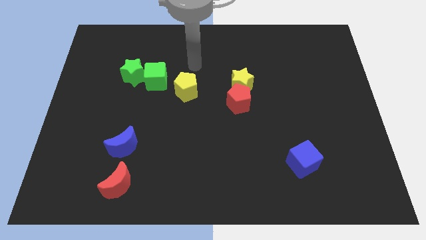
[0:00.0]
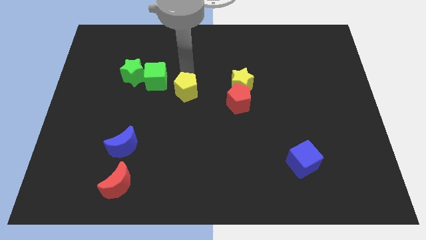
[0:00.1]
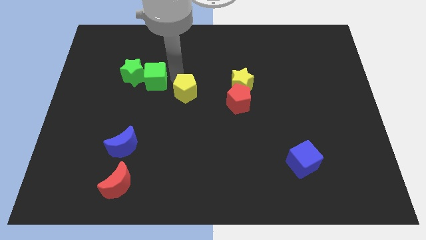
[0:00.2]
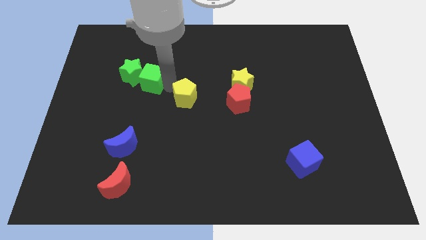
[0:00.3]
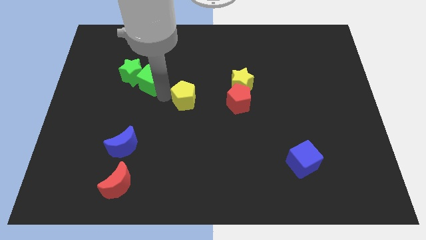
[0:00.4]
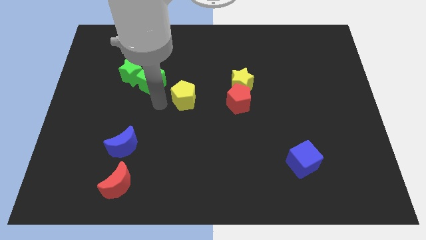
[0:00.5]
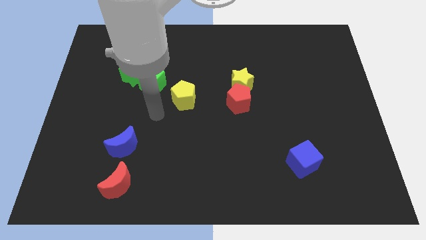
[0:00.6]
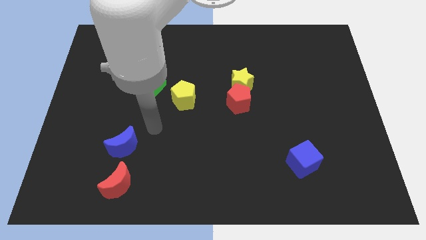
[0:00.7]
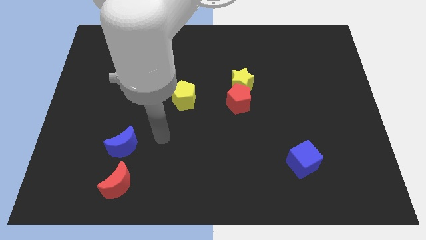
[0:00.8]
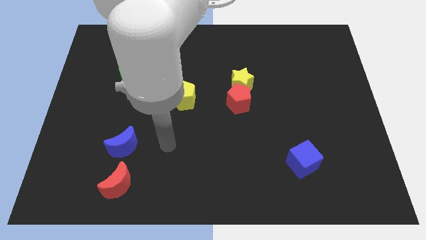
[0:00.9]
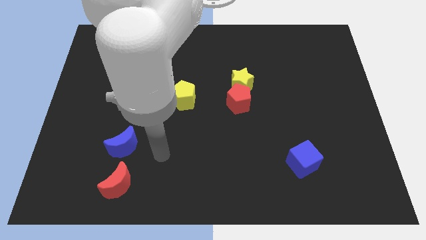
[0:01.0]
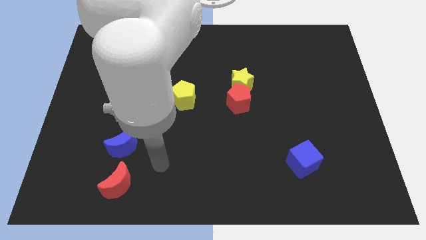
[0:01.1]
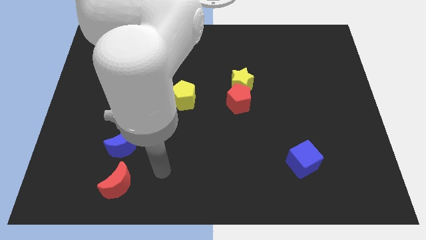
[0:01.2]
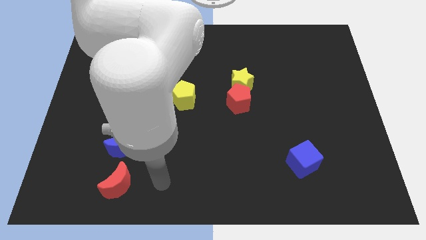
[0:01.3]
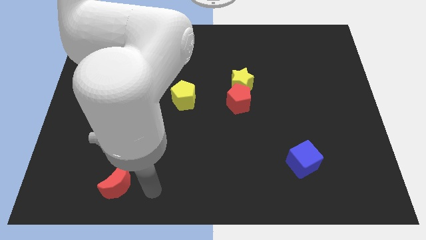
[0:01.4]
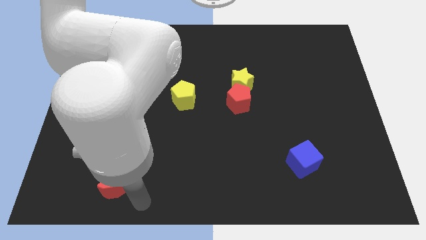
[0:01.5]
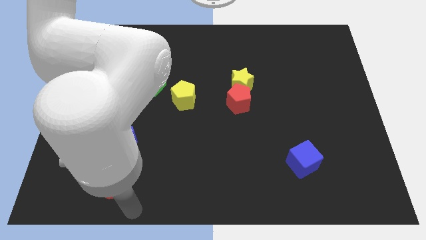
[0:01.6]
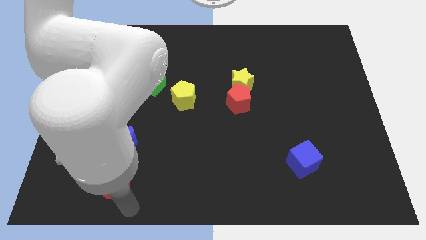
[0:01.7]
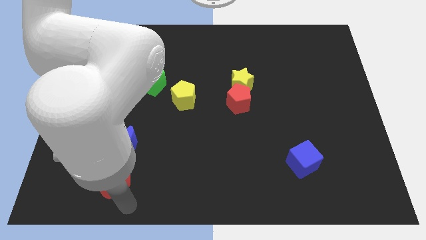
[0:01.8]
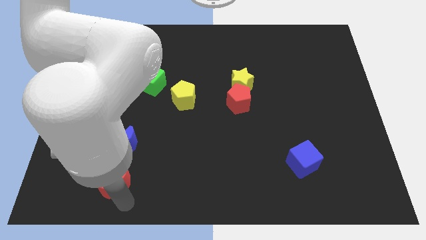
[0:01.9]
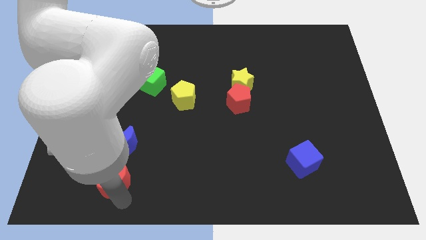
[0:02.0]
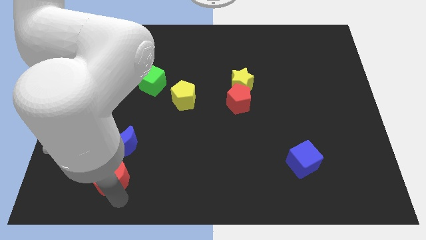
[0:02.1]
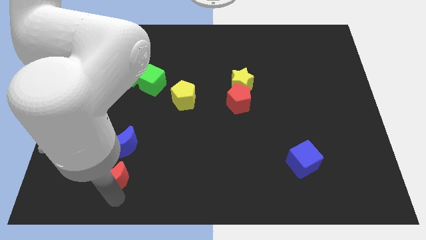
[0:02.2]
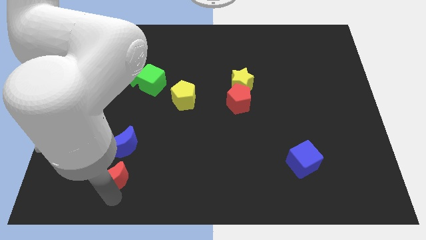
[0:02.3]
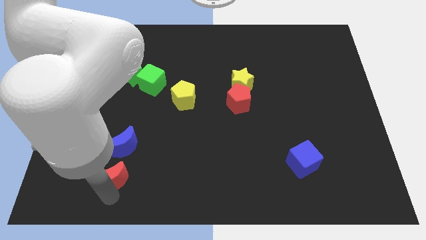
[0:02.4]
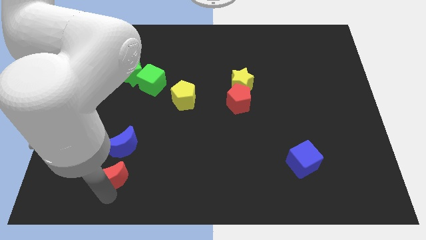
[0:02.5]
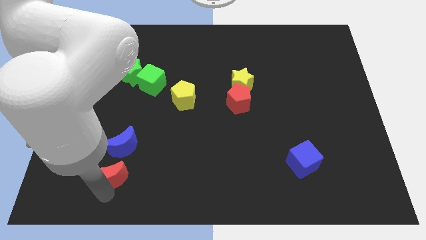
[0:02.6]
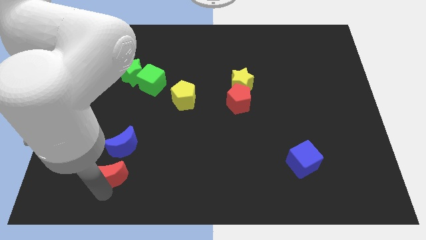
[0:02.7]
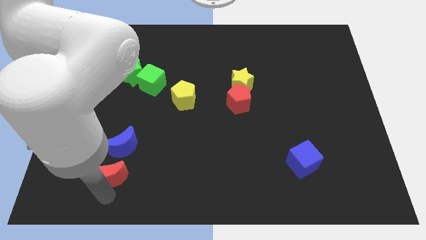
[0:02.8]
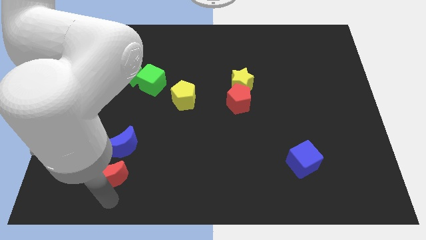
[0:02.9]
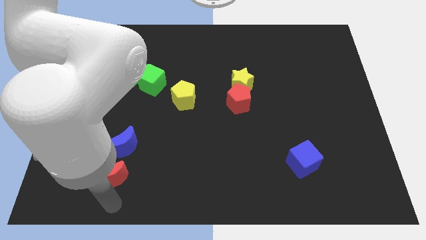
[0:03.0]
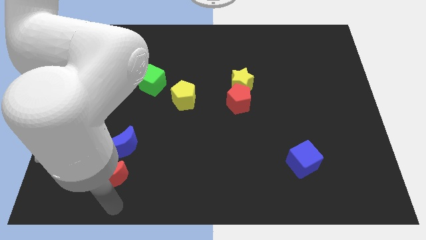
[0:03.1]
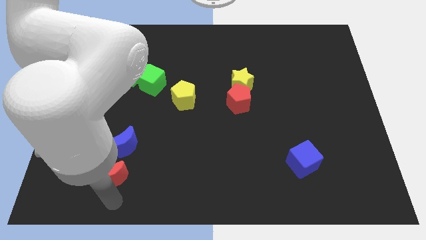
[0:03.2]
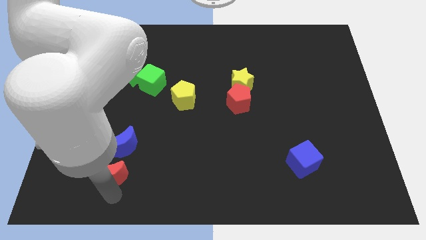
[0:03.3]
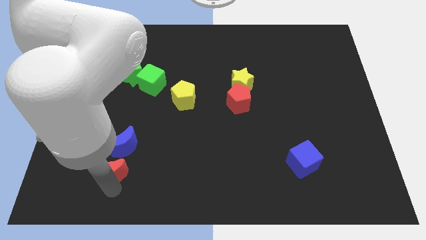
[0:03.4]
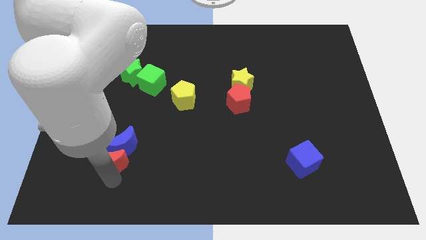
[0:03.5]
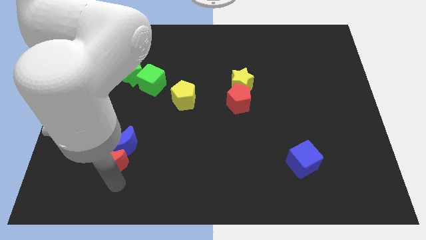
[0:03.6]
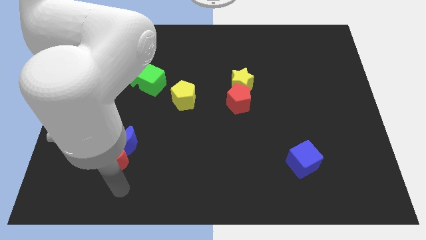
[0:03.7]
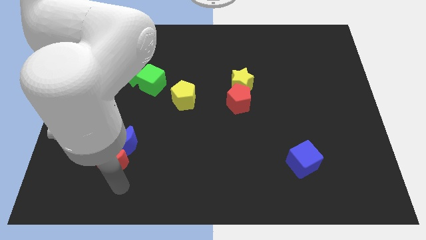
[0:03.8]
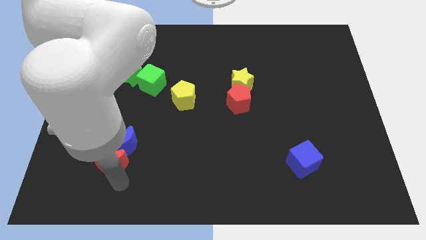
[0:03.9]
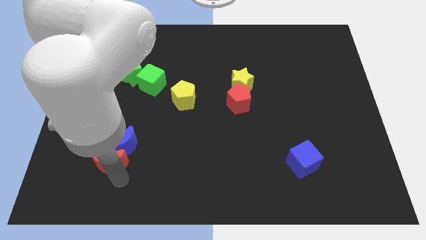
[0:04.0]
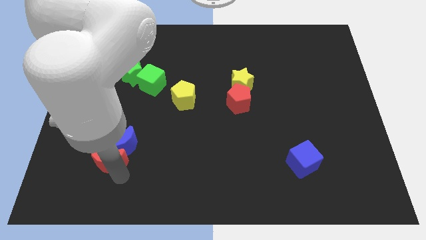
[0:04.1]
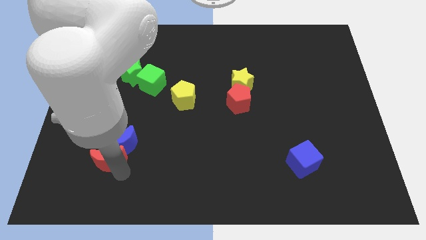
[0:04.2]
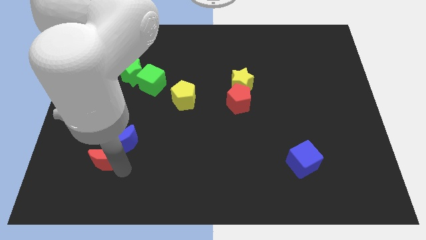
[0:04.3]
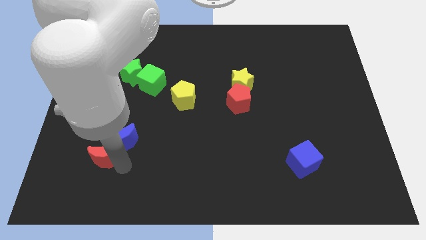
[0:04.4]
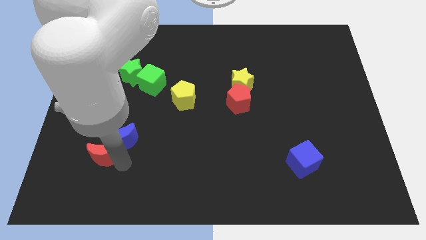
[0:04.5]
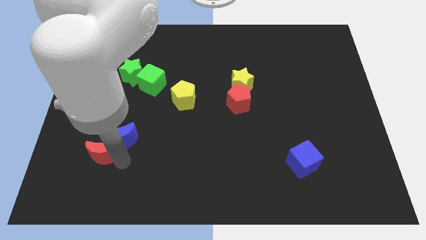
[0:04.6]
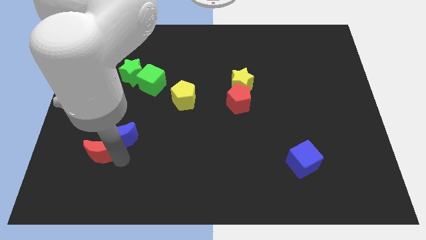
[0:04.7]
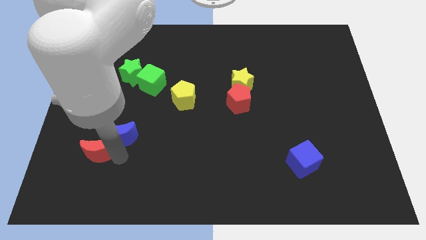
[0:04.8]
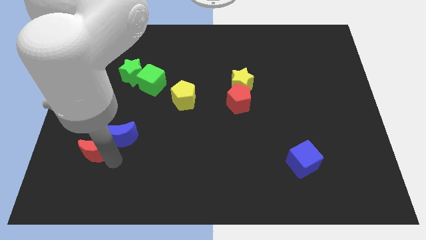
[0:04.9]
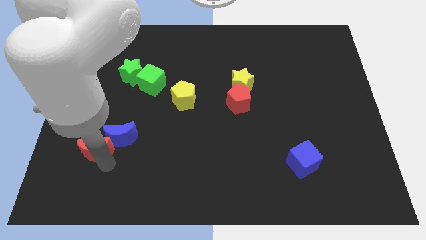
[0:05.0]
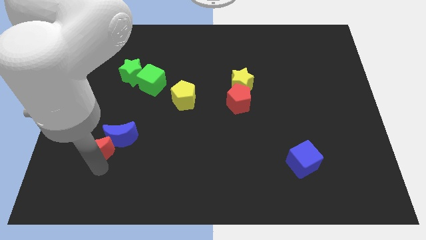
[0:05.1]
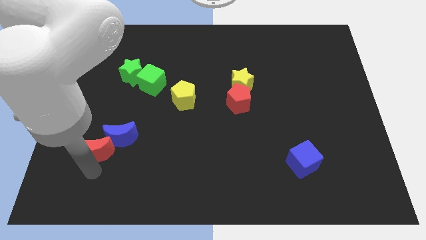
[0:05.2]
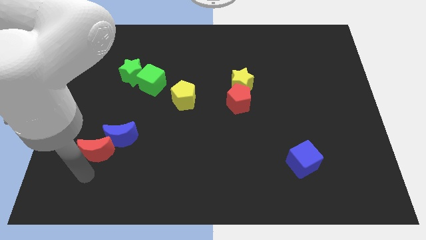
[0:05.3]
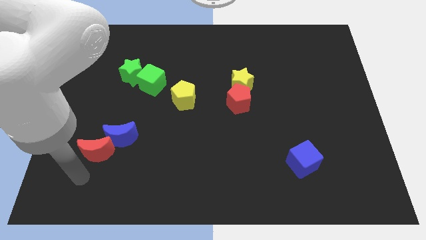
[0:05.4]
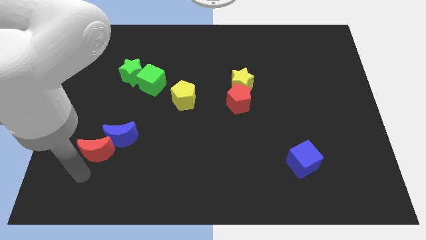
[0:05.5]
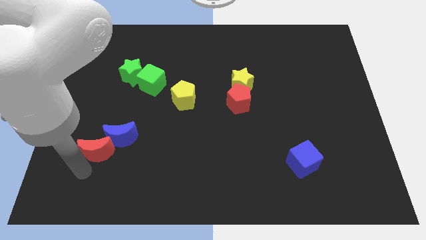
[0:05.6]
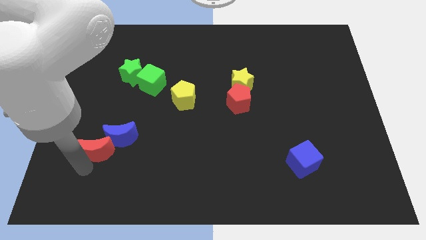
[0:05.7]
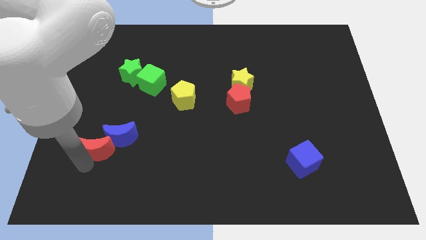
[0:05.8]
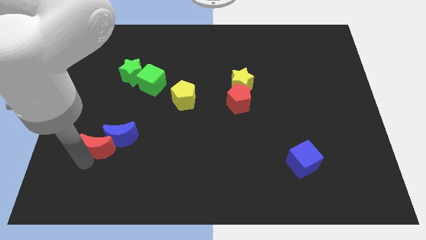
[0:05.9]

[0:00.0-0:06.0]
move the red moon somewhat upwards

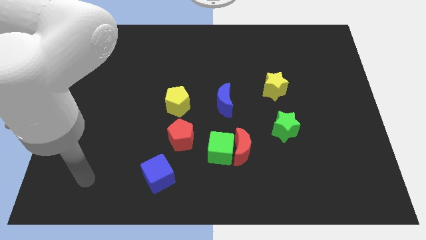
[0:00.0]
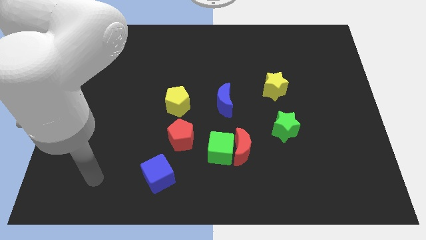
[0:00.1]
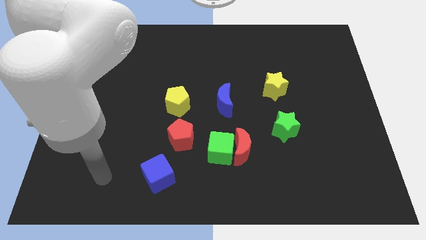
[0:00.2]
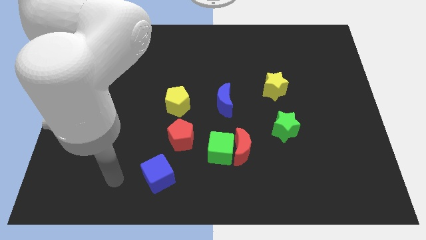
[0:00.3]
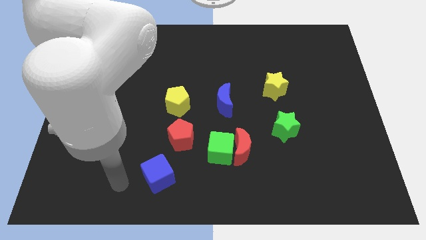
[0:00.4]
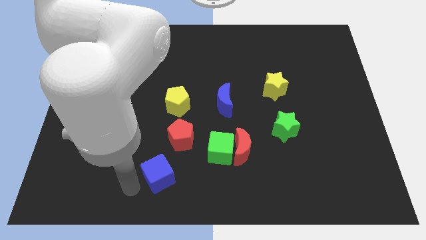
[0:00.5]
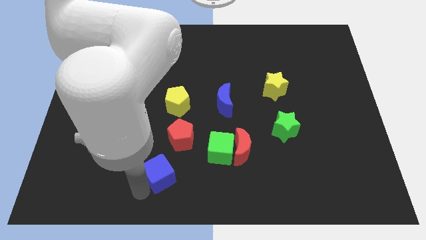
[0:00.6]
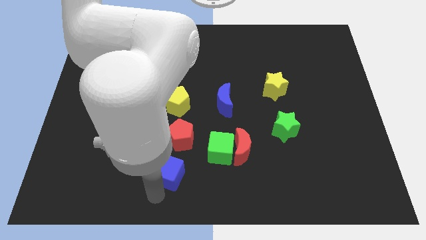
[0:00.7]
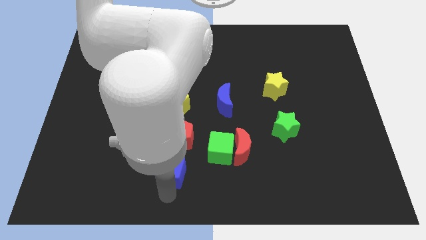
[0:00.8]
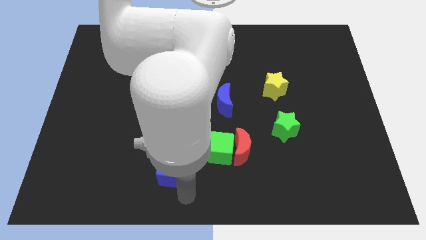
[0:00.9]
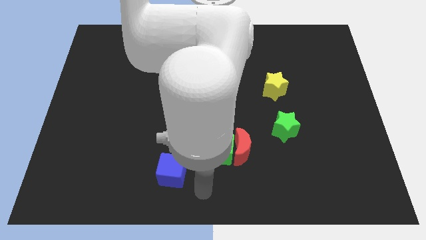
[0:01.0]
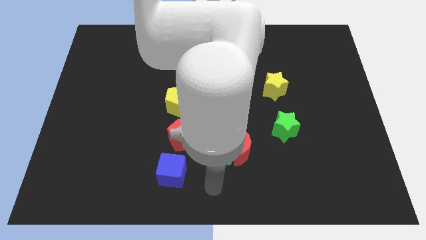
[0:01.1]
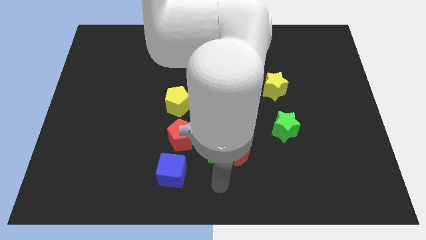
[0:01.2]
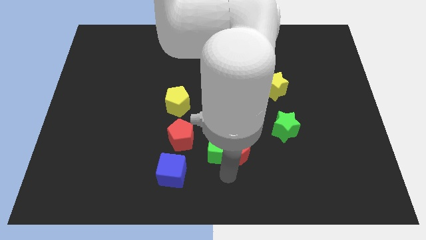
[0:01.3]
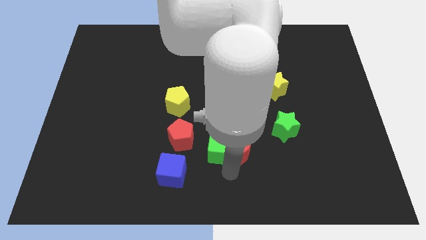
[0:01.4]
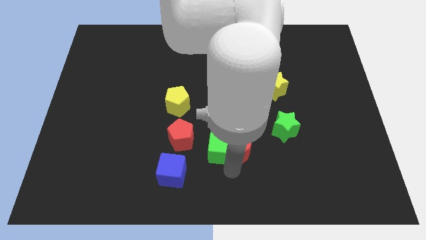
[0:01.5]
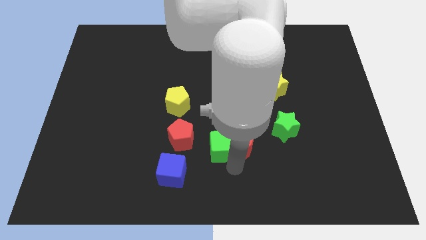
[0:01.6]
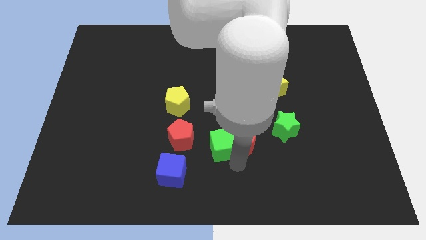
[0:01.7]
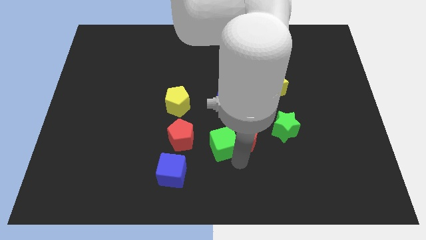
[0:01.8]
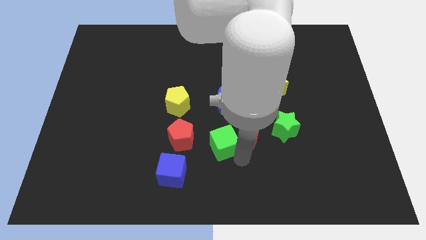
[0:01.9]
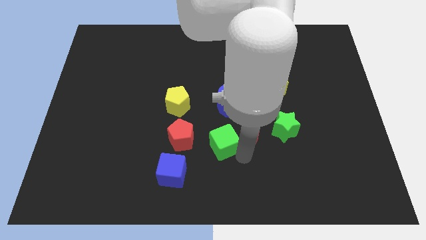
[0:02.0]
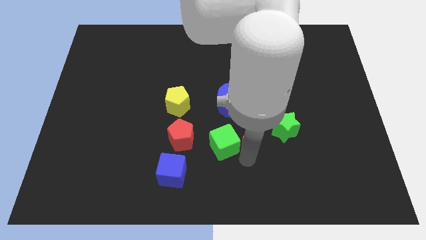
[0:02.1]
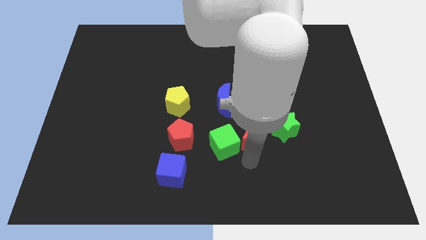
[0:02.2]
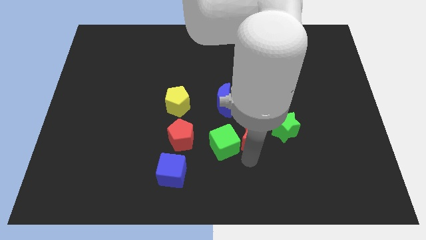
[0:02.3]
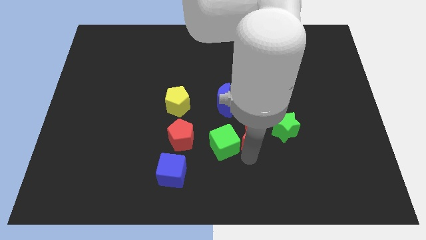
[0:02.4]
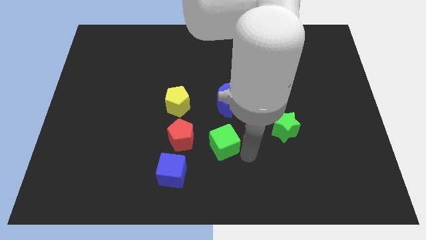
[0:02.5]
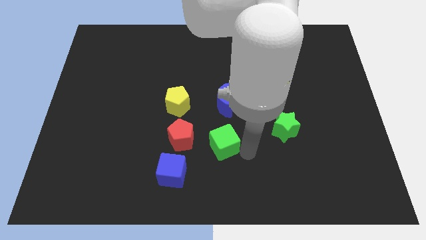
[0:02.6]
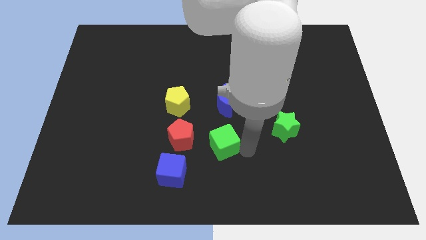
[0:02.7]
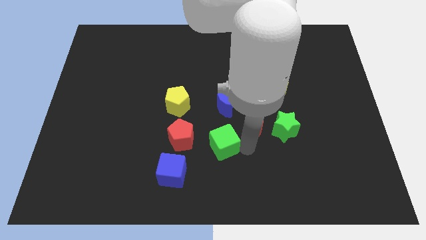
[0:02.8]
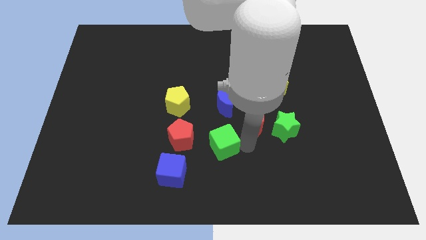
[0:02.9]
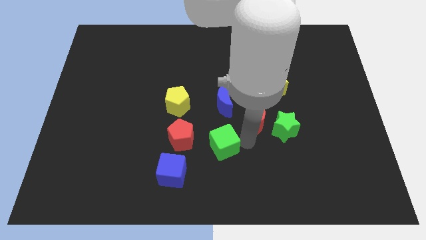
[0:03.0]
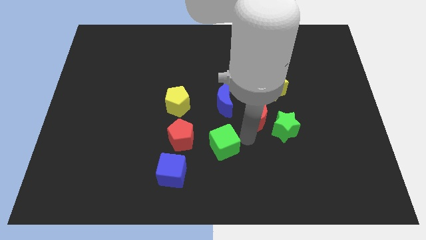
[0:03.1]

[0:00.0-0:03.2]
move the red moon a little bit upwards
